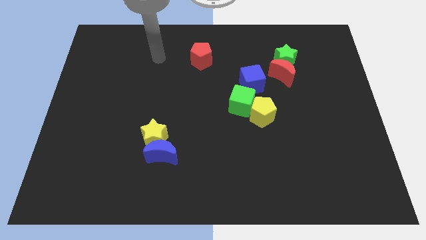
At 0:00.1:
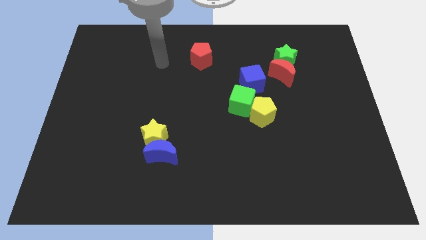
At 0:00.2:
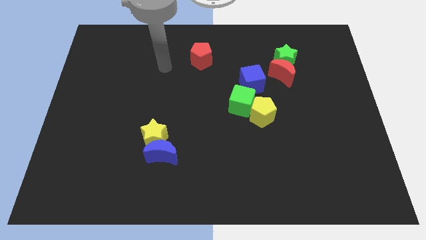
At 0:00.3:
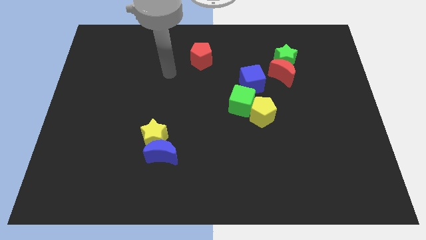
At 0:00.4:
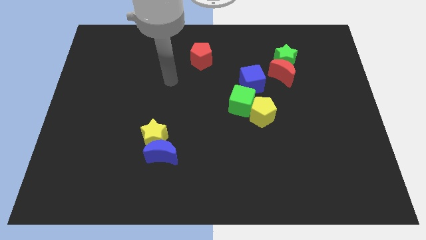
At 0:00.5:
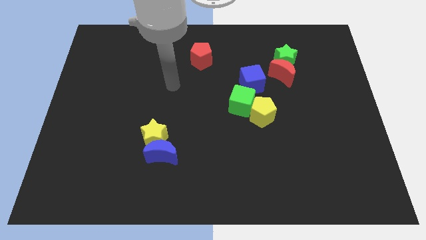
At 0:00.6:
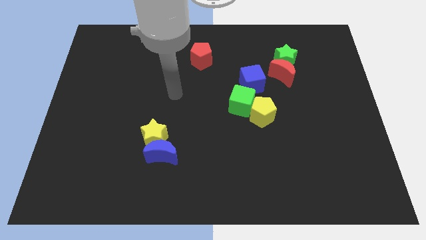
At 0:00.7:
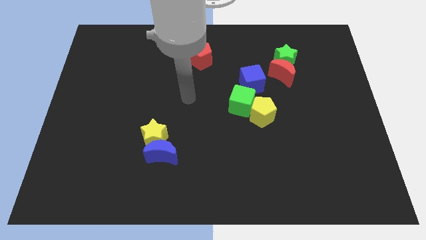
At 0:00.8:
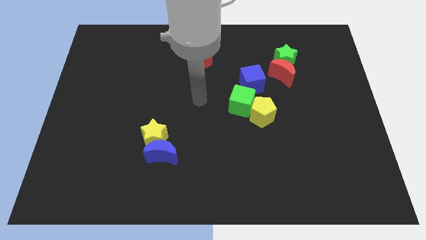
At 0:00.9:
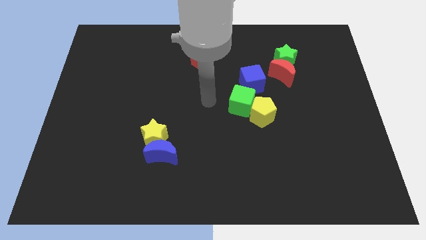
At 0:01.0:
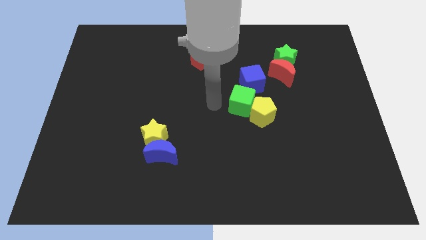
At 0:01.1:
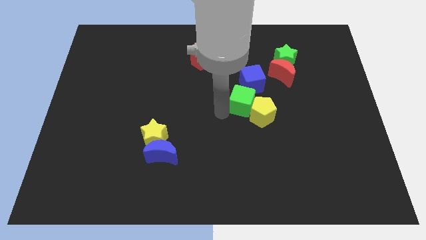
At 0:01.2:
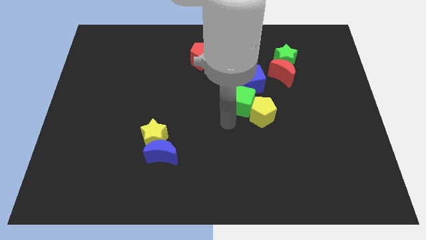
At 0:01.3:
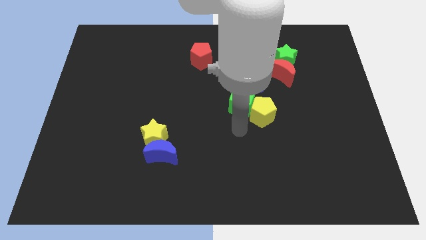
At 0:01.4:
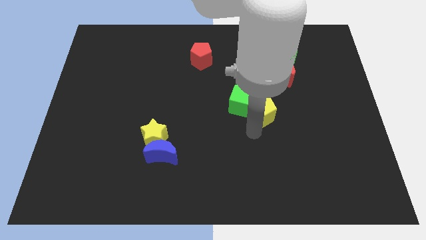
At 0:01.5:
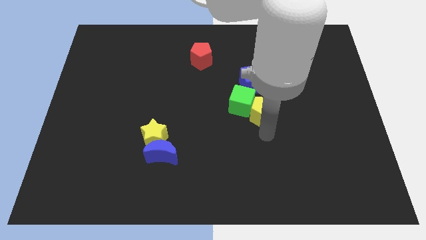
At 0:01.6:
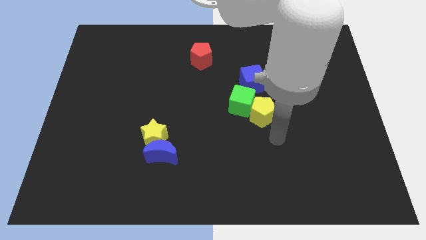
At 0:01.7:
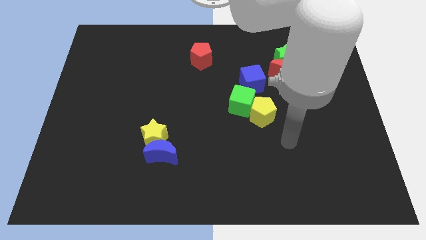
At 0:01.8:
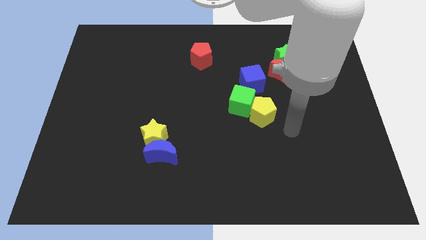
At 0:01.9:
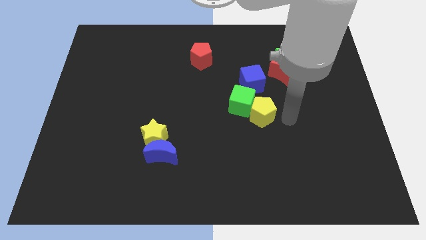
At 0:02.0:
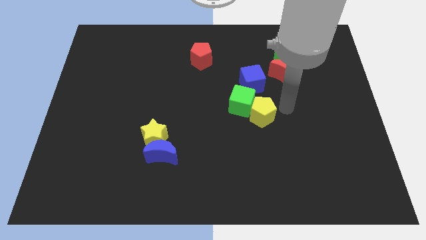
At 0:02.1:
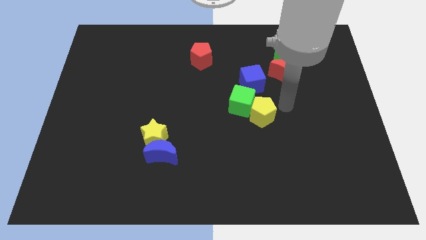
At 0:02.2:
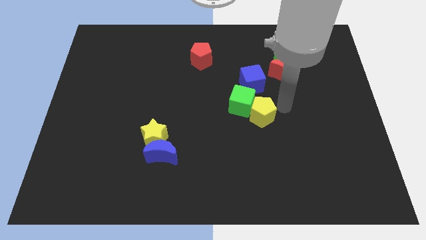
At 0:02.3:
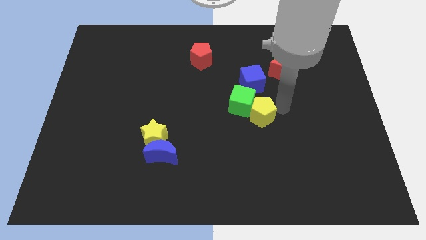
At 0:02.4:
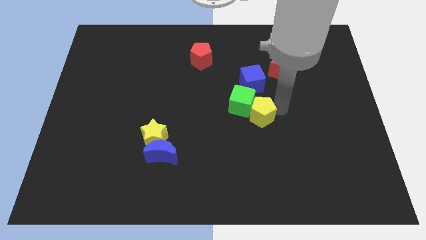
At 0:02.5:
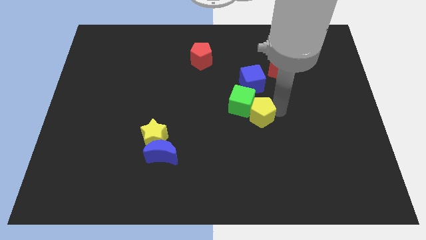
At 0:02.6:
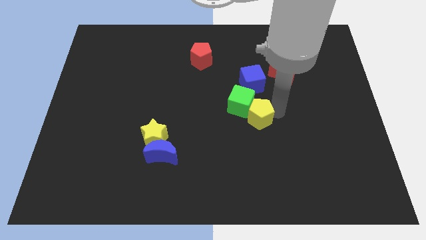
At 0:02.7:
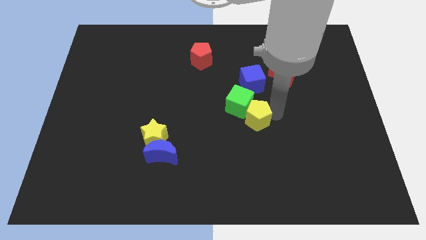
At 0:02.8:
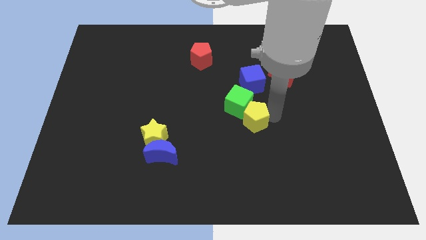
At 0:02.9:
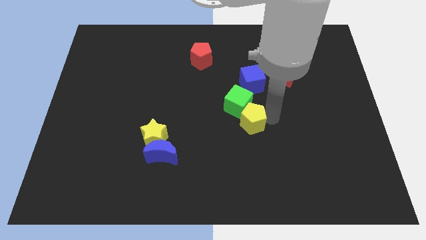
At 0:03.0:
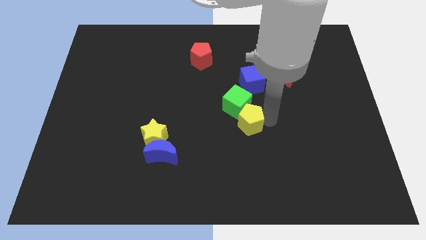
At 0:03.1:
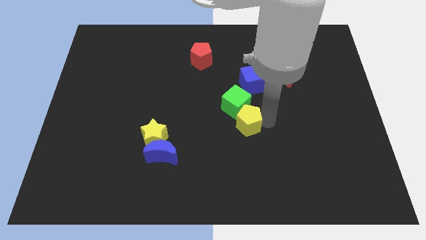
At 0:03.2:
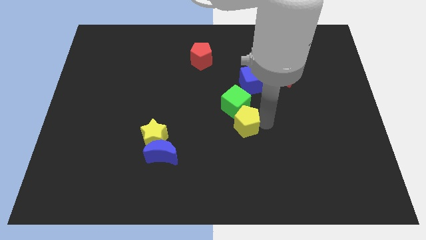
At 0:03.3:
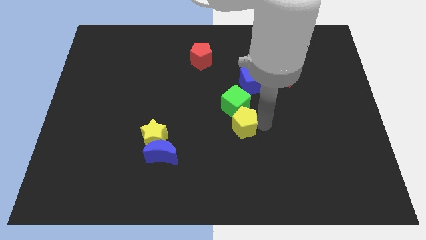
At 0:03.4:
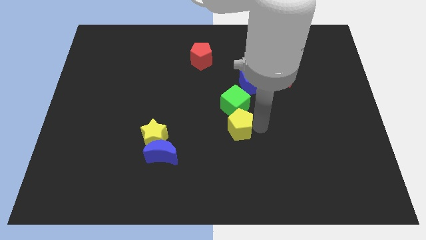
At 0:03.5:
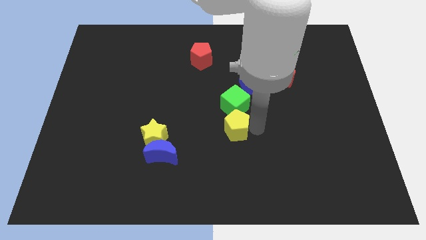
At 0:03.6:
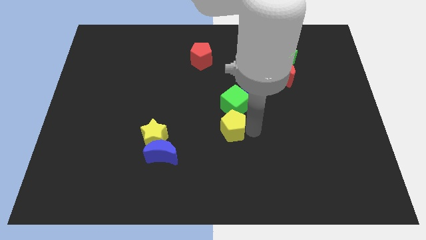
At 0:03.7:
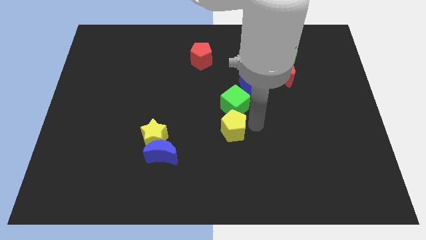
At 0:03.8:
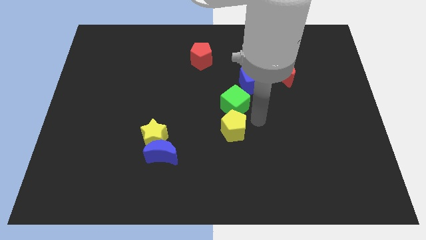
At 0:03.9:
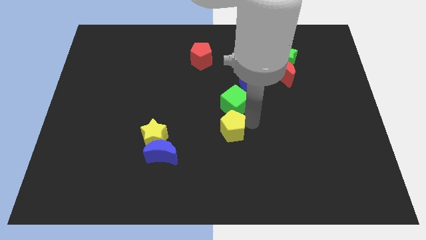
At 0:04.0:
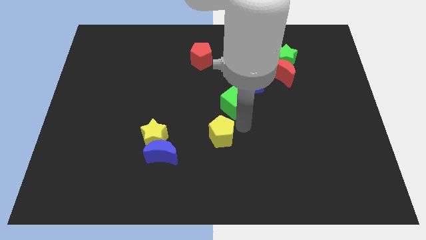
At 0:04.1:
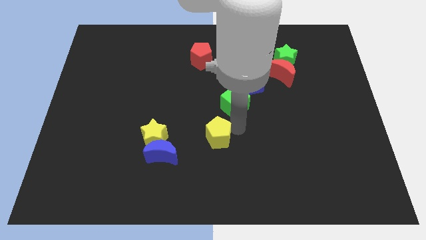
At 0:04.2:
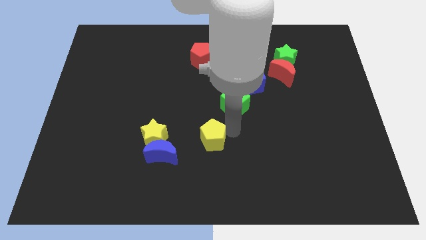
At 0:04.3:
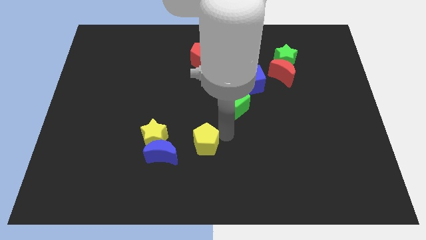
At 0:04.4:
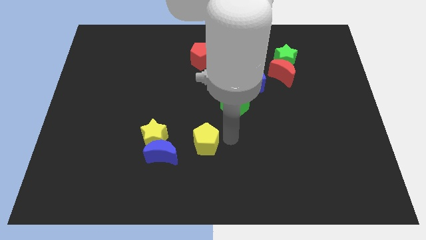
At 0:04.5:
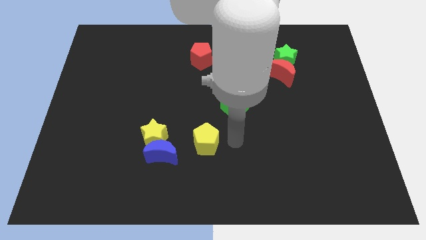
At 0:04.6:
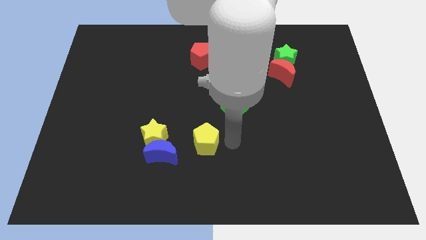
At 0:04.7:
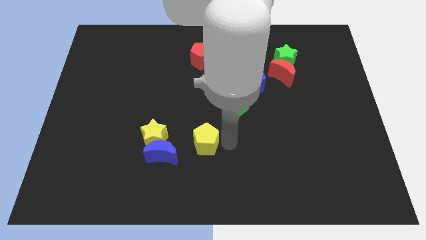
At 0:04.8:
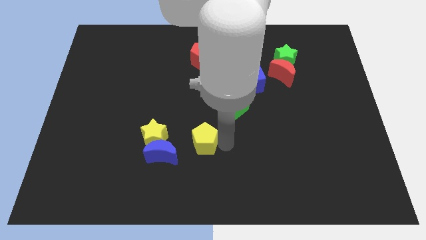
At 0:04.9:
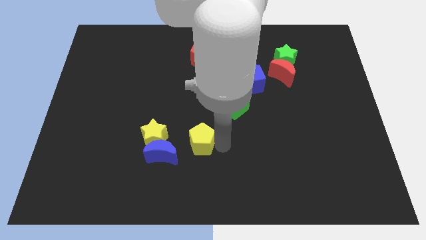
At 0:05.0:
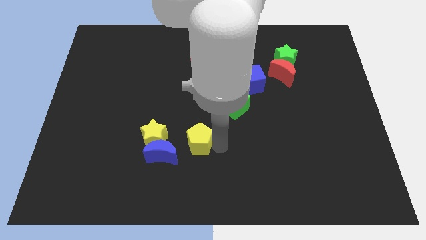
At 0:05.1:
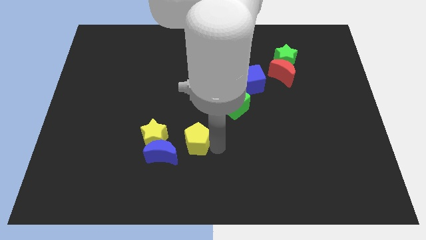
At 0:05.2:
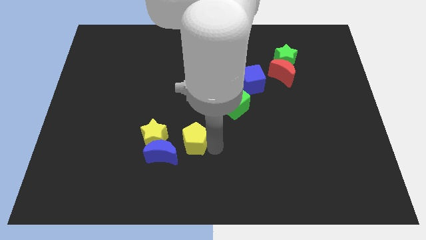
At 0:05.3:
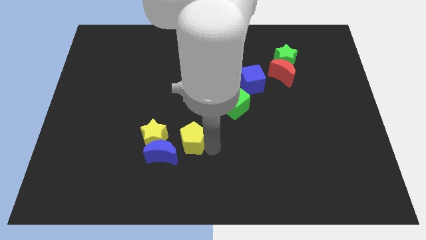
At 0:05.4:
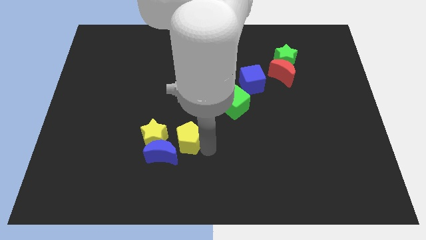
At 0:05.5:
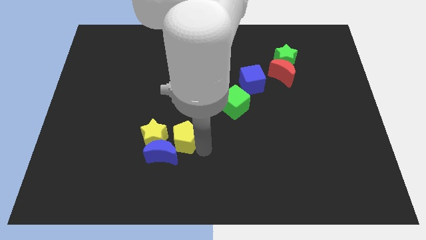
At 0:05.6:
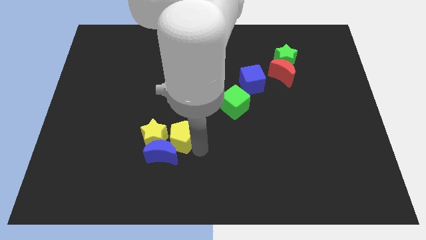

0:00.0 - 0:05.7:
put the yellow pentagon towards the yellow star

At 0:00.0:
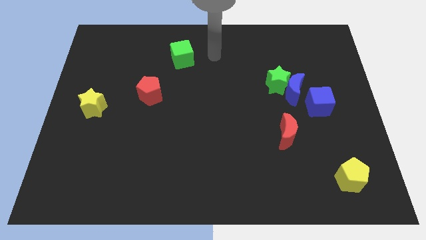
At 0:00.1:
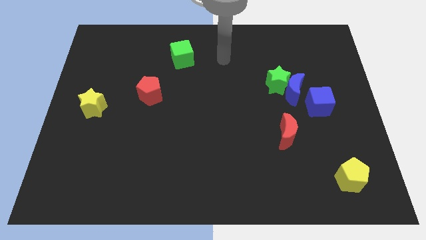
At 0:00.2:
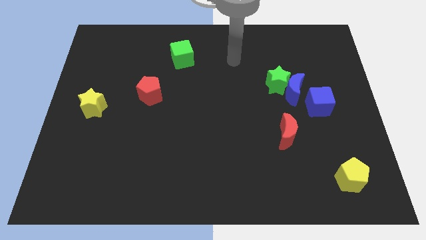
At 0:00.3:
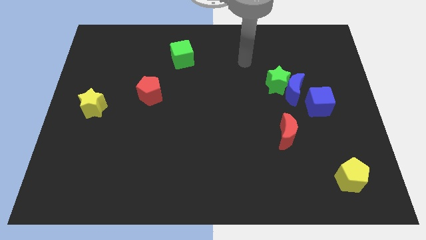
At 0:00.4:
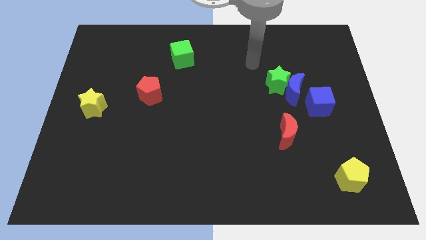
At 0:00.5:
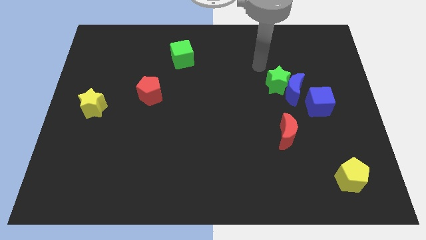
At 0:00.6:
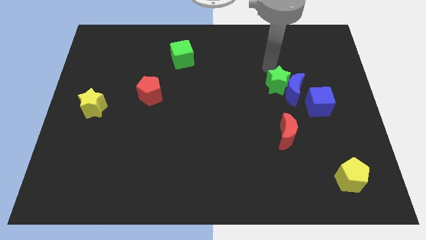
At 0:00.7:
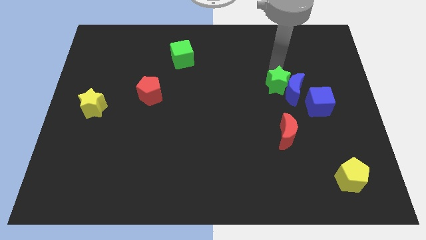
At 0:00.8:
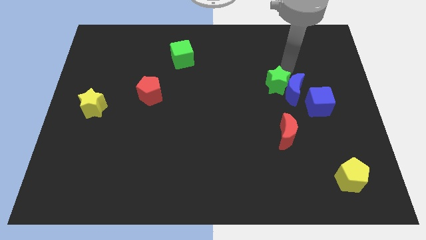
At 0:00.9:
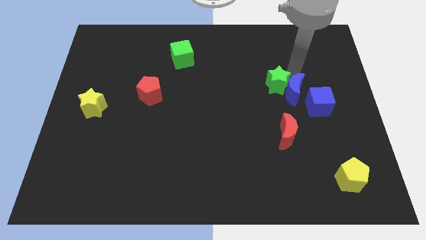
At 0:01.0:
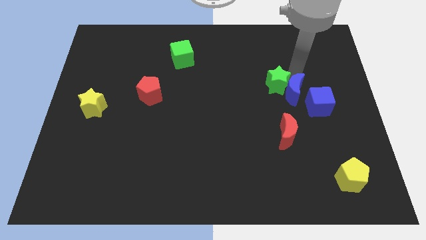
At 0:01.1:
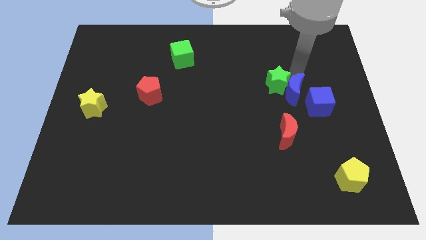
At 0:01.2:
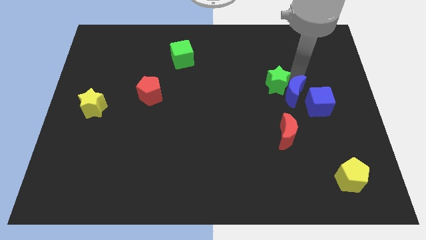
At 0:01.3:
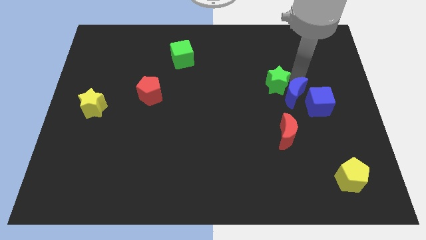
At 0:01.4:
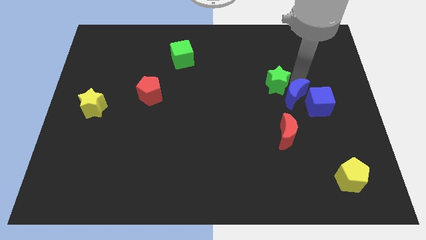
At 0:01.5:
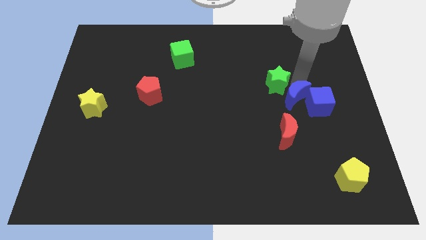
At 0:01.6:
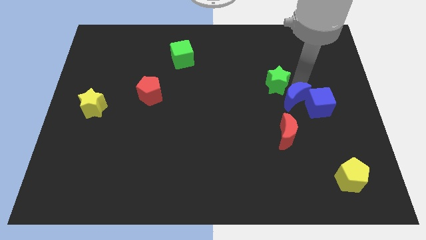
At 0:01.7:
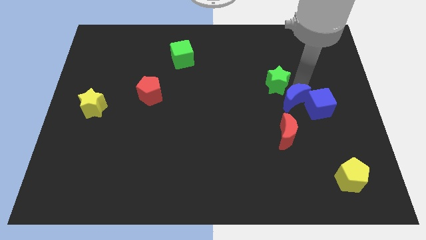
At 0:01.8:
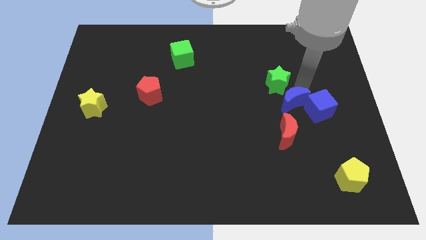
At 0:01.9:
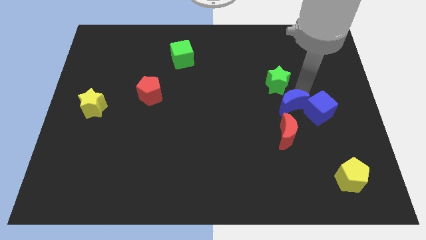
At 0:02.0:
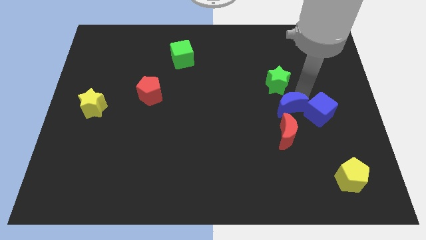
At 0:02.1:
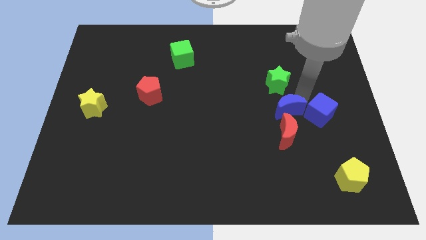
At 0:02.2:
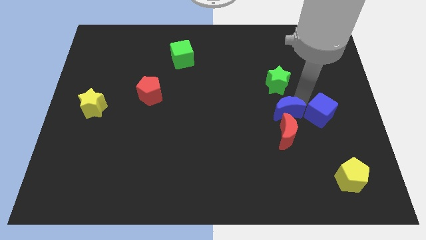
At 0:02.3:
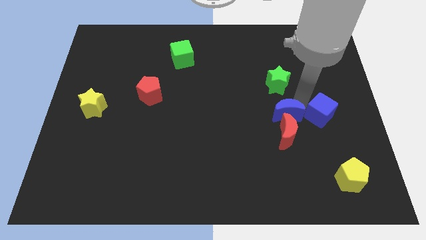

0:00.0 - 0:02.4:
put the blue moon to the red moon

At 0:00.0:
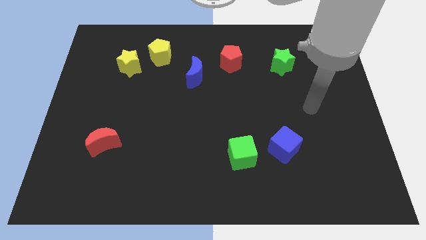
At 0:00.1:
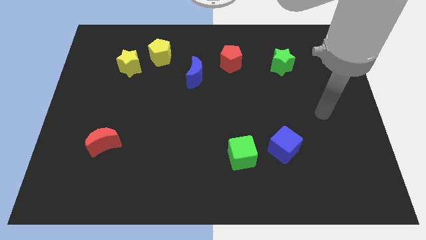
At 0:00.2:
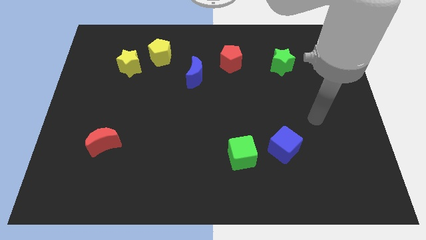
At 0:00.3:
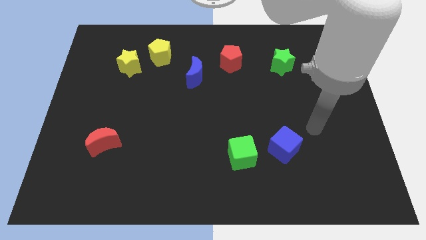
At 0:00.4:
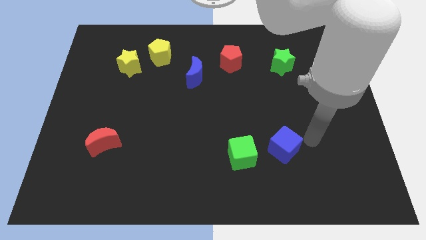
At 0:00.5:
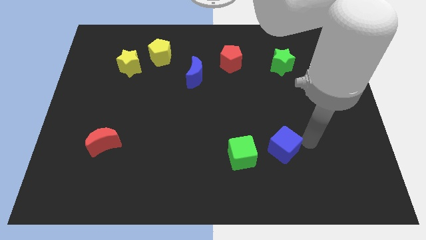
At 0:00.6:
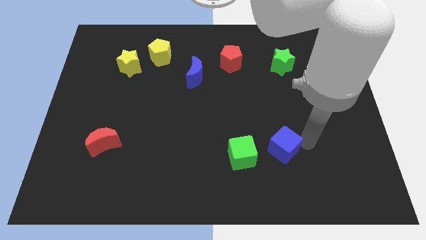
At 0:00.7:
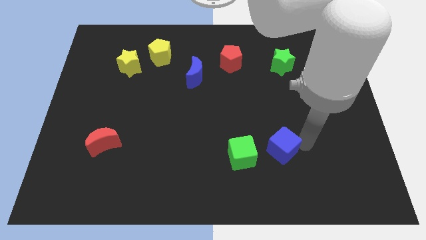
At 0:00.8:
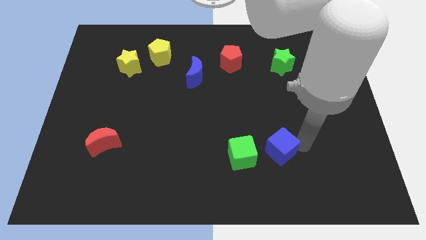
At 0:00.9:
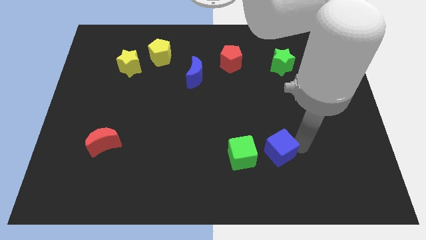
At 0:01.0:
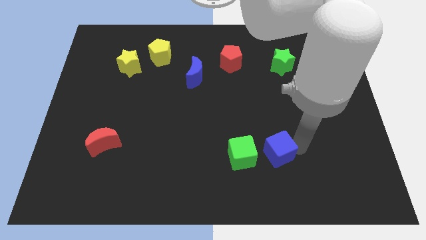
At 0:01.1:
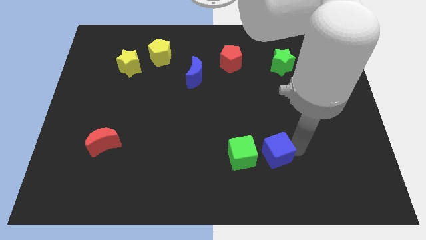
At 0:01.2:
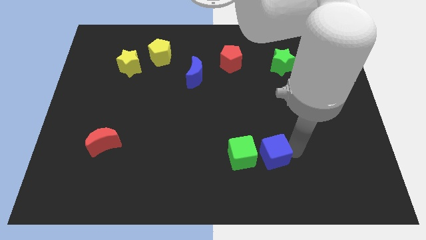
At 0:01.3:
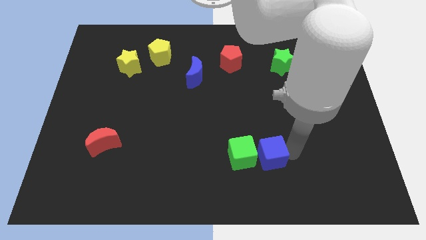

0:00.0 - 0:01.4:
move the blue cube close to the green cube
